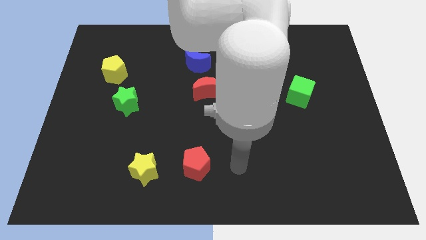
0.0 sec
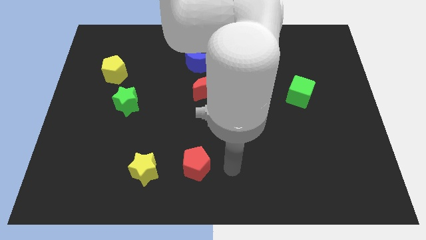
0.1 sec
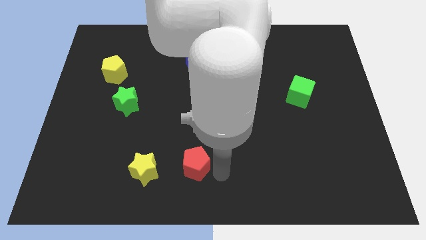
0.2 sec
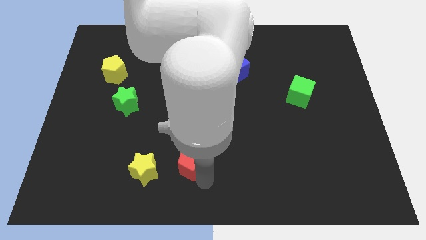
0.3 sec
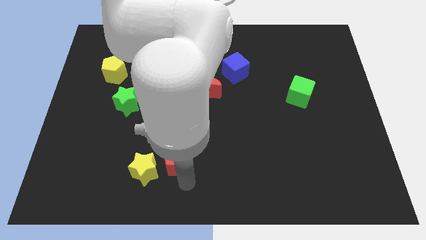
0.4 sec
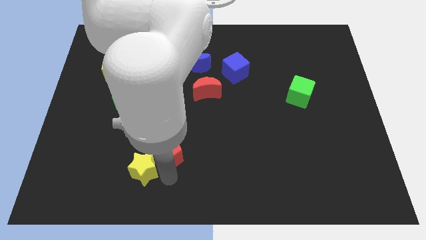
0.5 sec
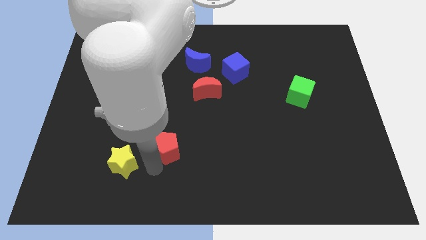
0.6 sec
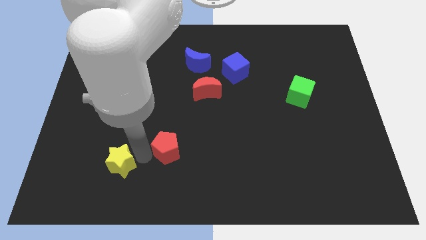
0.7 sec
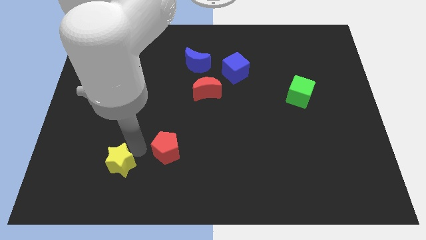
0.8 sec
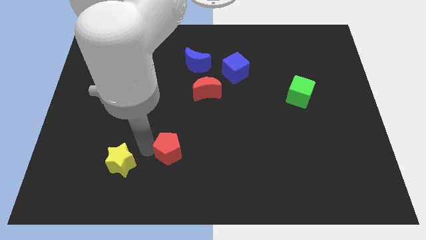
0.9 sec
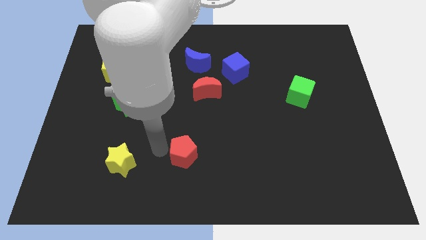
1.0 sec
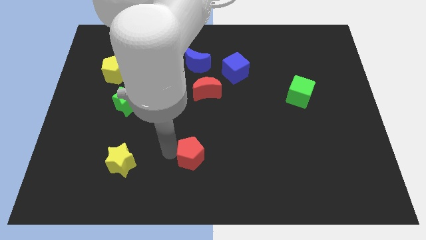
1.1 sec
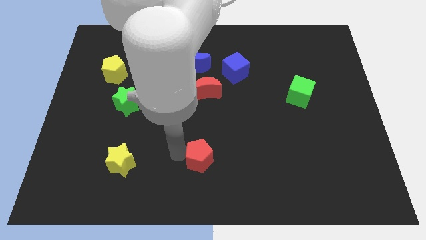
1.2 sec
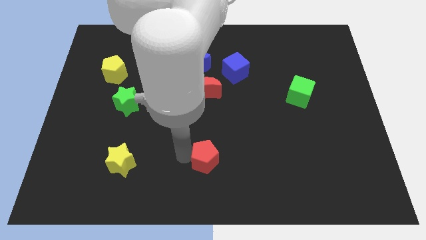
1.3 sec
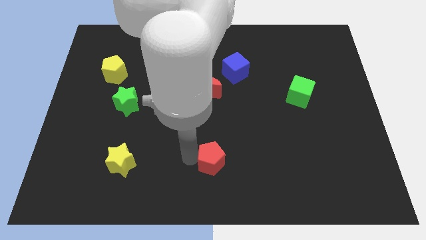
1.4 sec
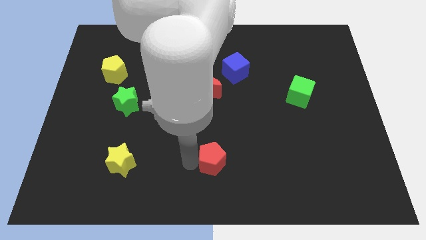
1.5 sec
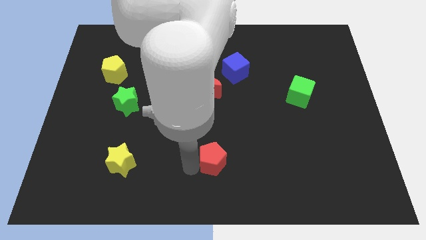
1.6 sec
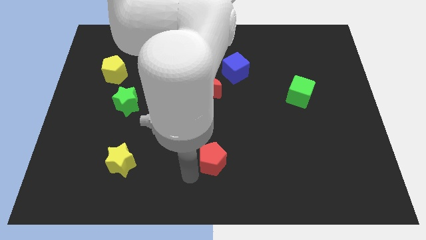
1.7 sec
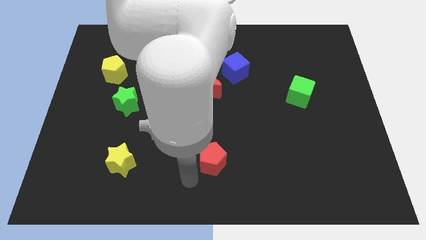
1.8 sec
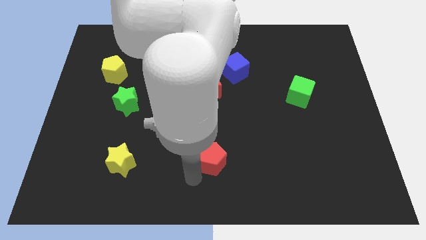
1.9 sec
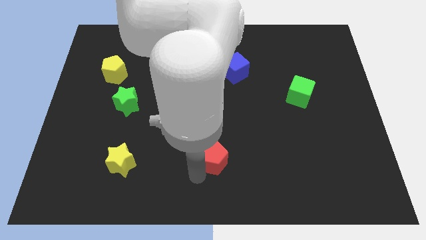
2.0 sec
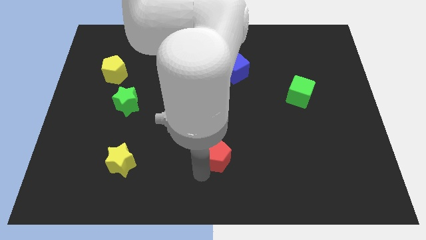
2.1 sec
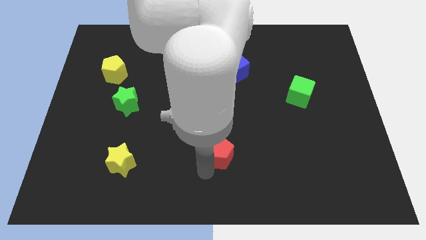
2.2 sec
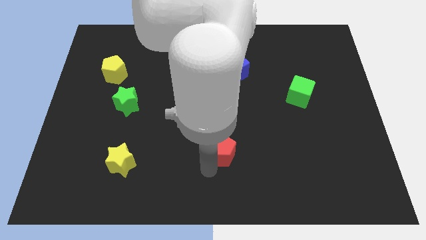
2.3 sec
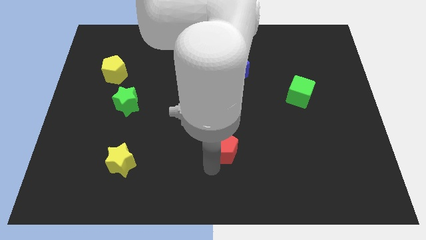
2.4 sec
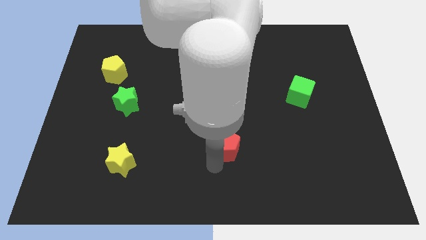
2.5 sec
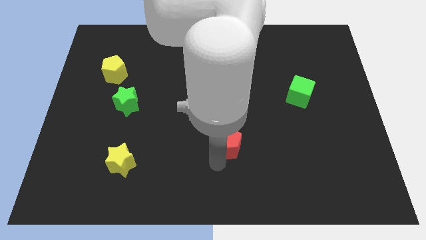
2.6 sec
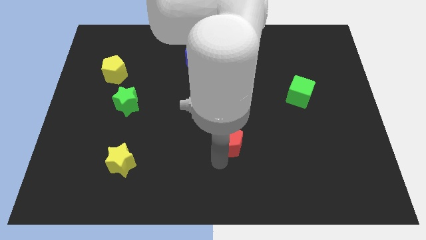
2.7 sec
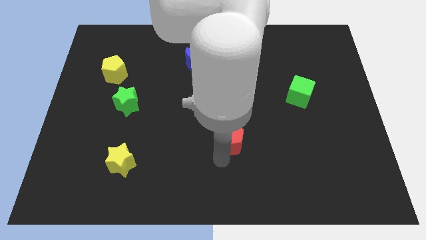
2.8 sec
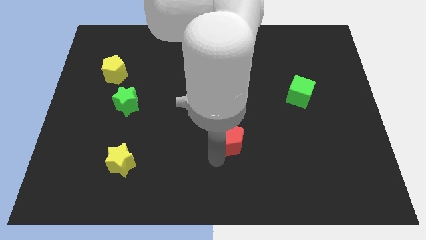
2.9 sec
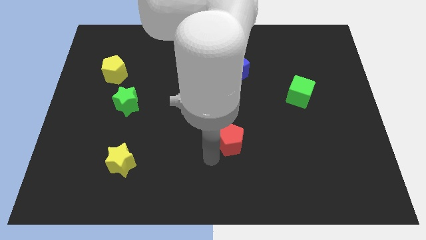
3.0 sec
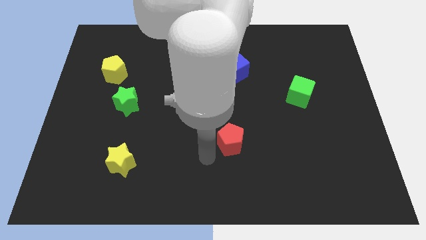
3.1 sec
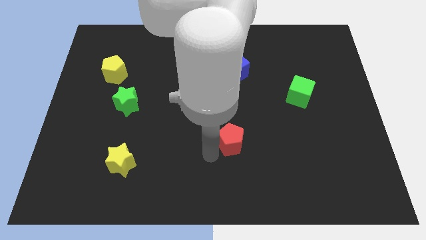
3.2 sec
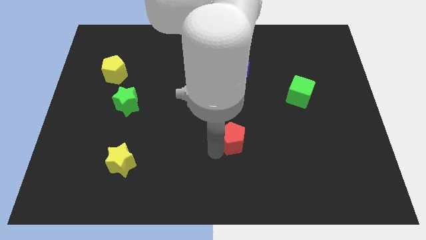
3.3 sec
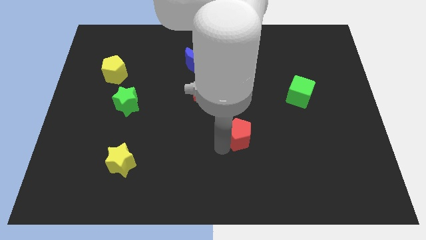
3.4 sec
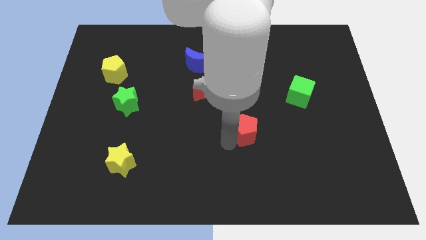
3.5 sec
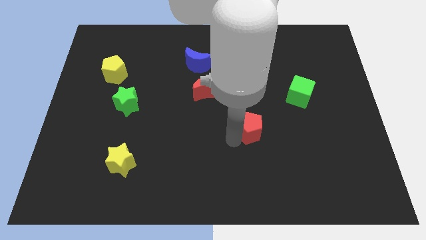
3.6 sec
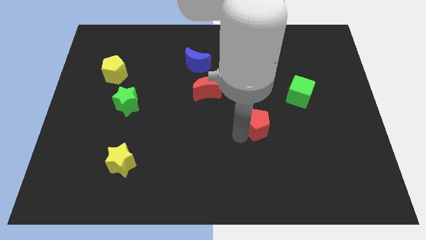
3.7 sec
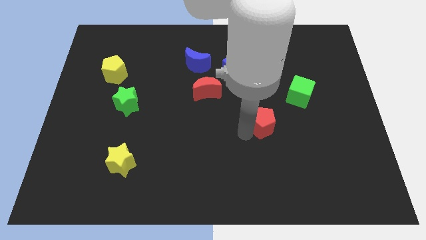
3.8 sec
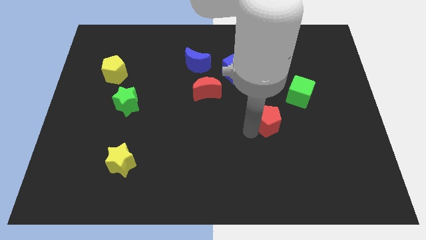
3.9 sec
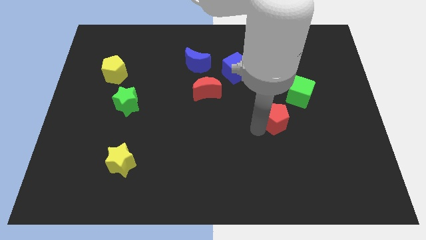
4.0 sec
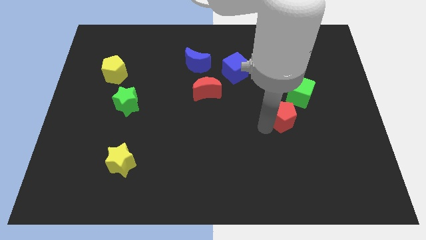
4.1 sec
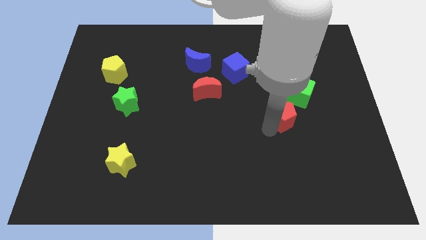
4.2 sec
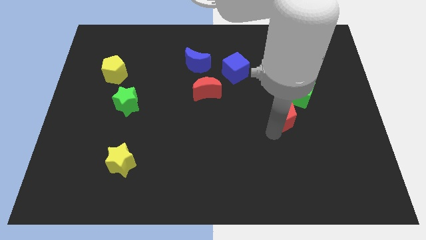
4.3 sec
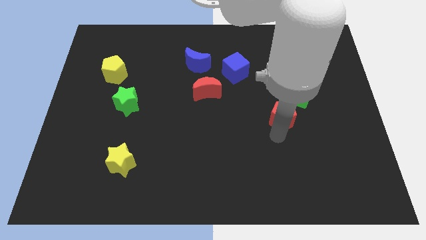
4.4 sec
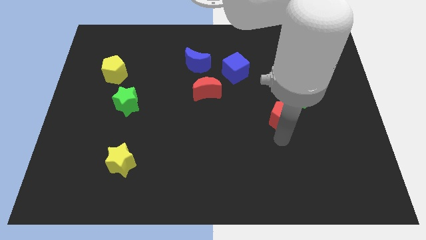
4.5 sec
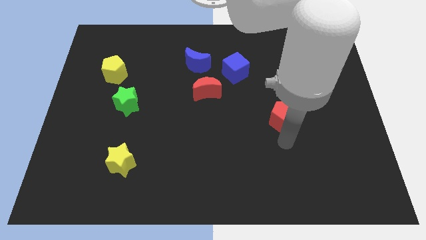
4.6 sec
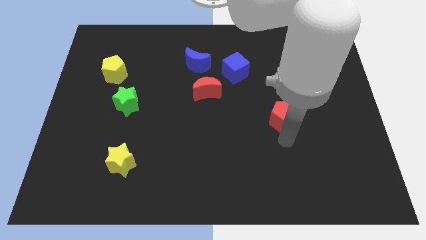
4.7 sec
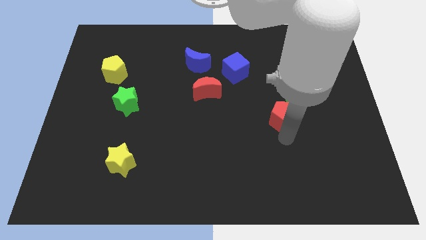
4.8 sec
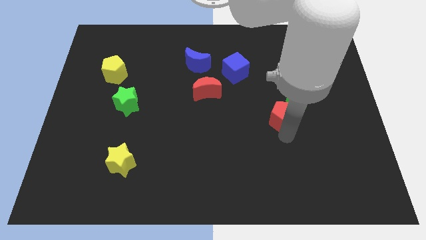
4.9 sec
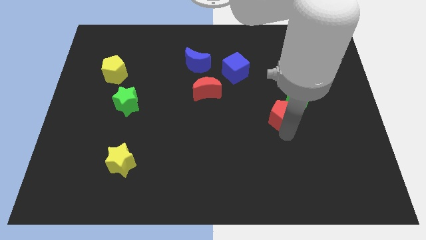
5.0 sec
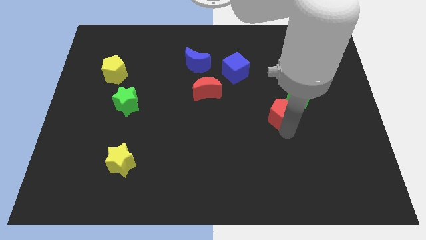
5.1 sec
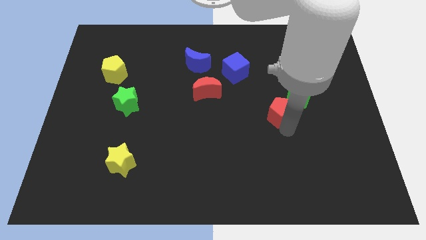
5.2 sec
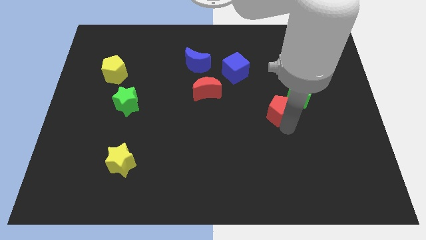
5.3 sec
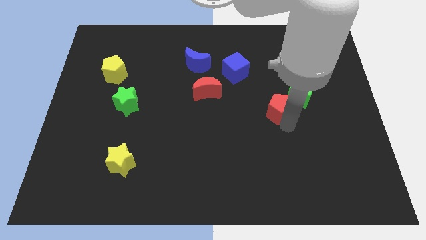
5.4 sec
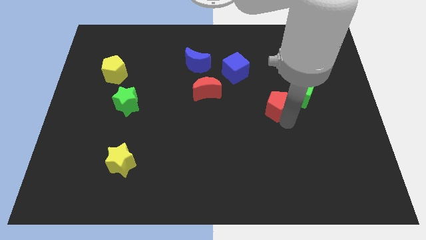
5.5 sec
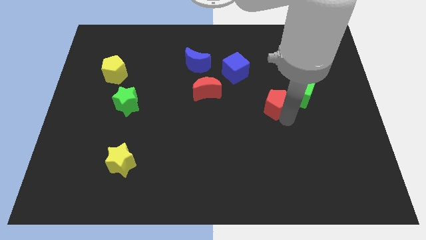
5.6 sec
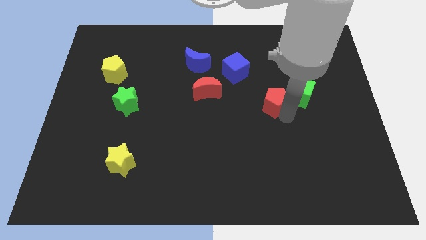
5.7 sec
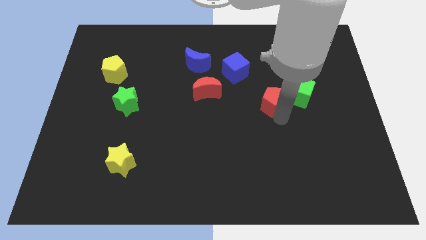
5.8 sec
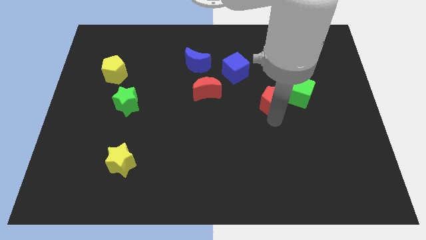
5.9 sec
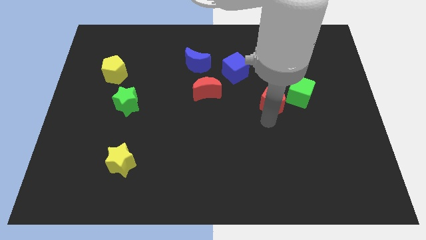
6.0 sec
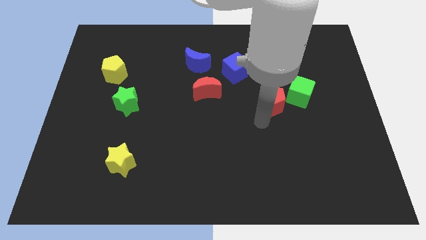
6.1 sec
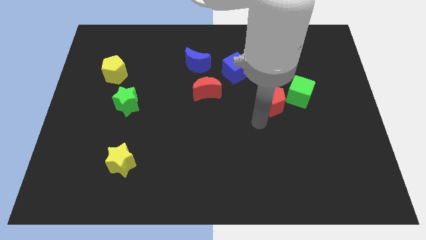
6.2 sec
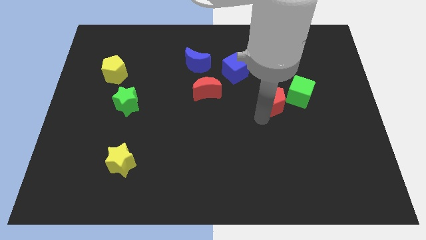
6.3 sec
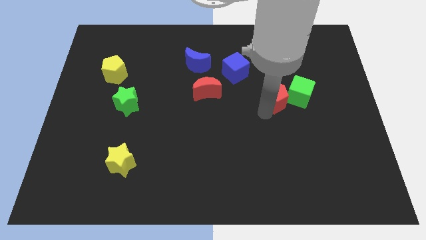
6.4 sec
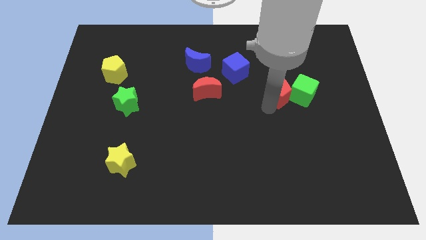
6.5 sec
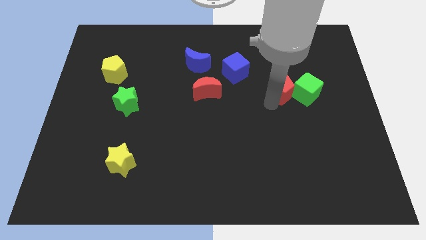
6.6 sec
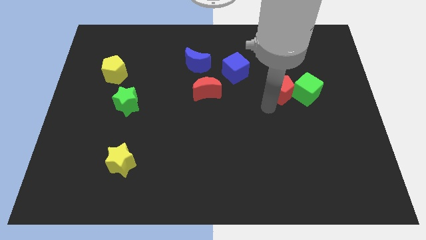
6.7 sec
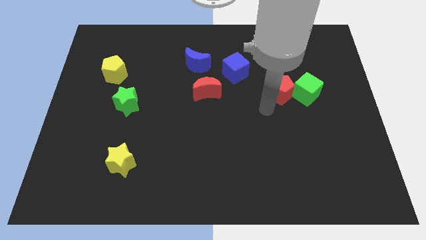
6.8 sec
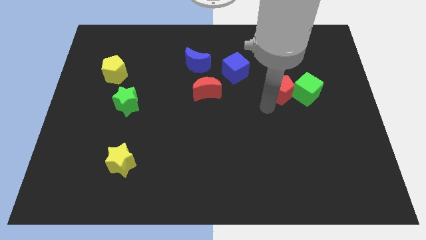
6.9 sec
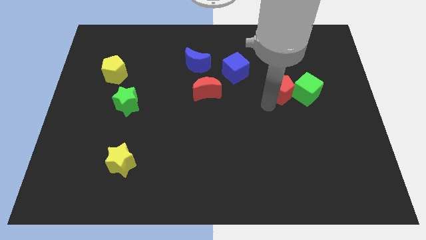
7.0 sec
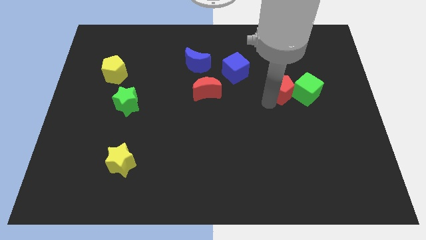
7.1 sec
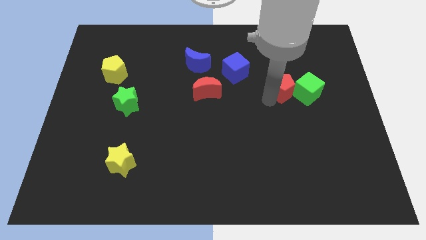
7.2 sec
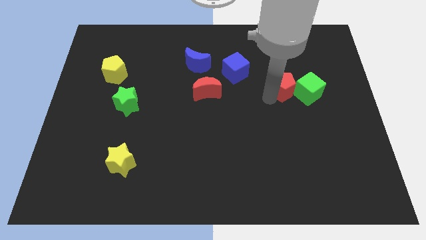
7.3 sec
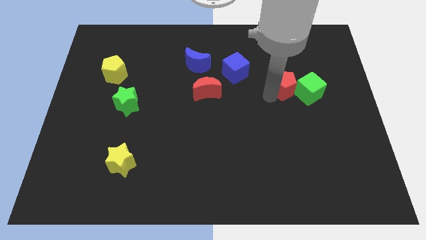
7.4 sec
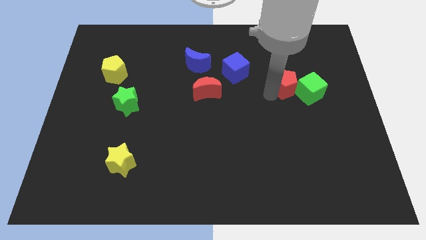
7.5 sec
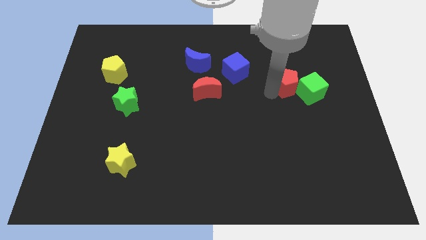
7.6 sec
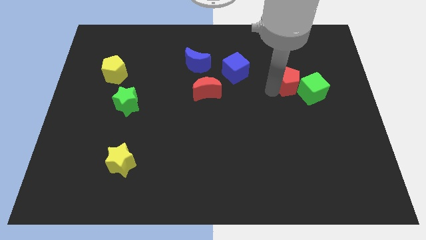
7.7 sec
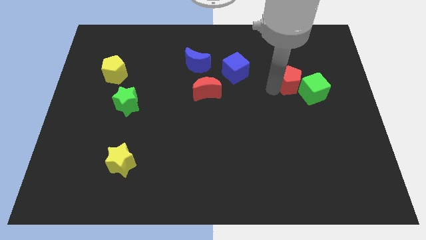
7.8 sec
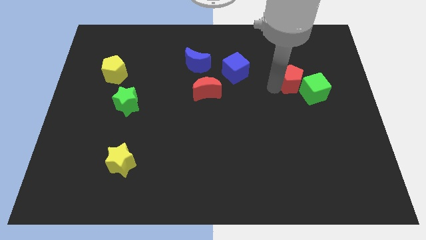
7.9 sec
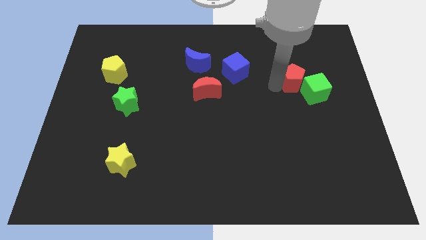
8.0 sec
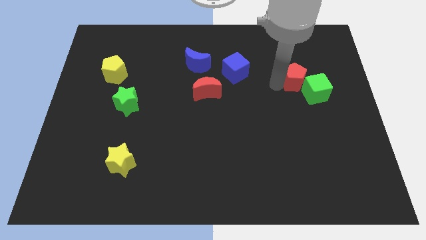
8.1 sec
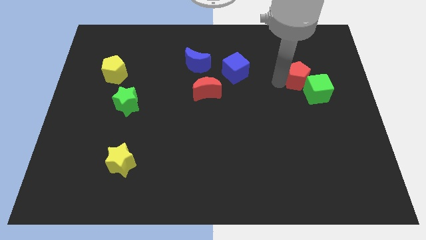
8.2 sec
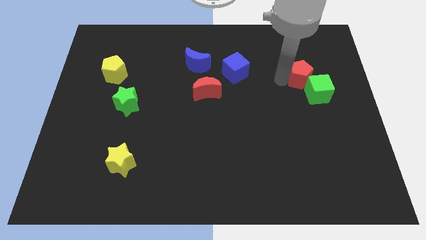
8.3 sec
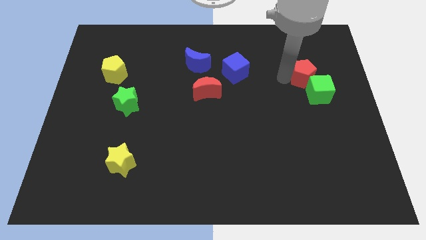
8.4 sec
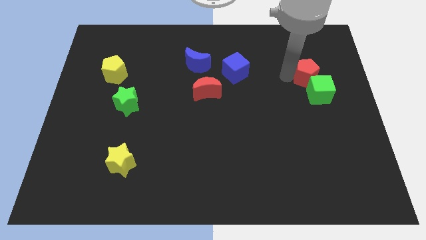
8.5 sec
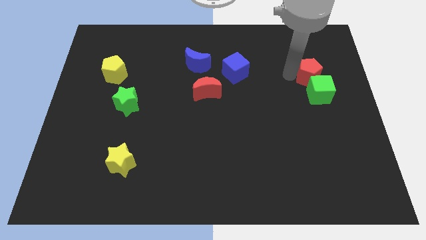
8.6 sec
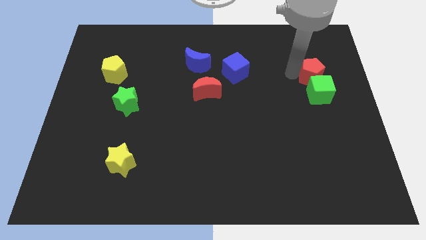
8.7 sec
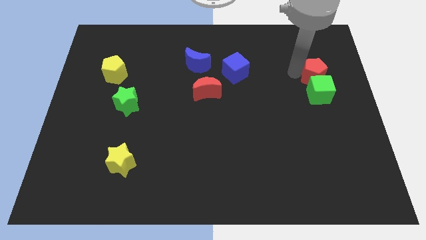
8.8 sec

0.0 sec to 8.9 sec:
move the red pentagon diagonally up and to the right of the green cube
